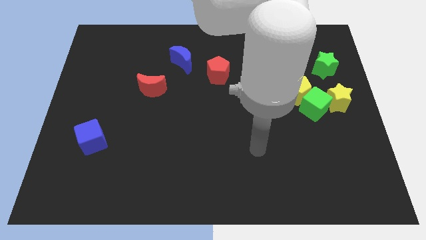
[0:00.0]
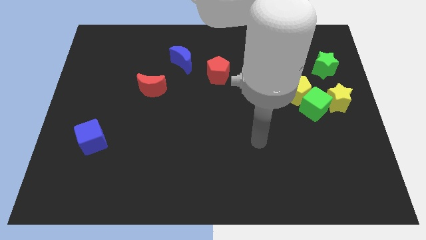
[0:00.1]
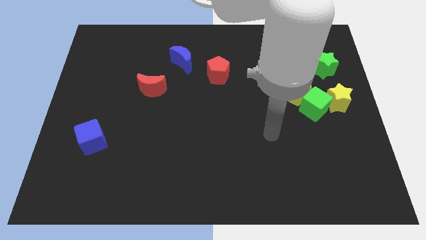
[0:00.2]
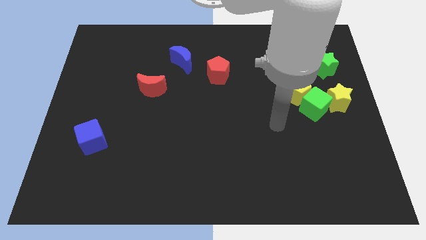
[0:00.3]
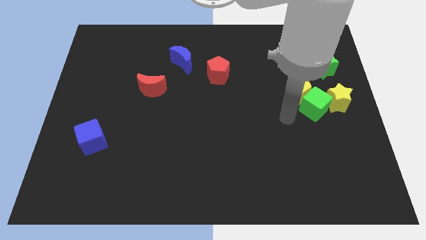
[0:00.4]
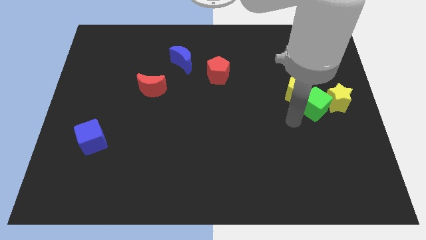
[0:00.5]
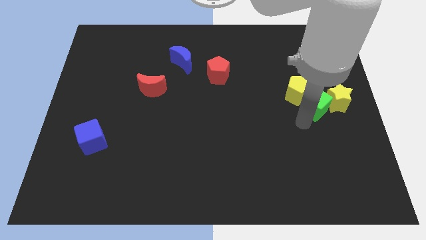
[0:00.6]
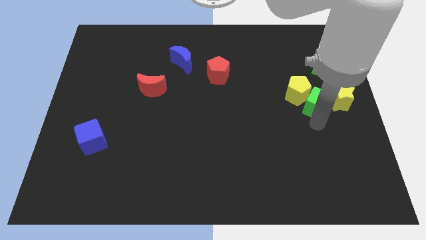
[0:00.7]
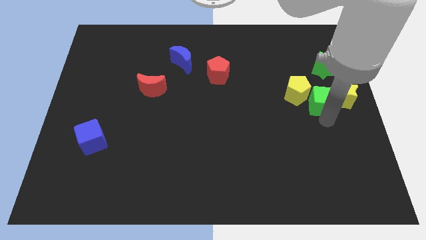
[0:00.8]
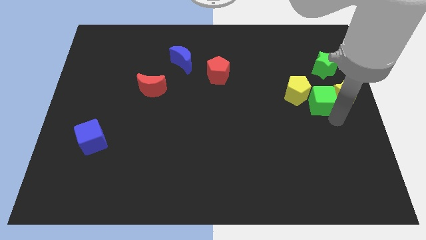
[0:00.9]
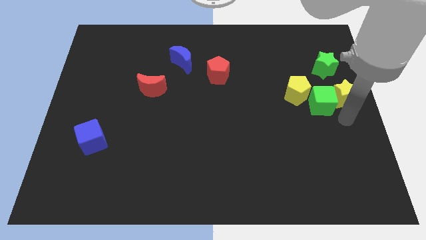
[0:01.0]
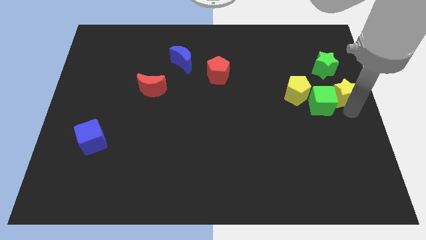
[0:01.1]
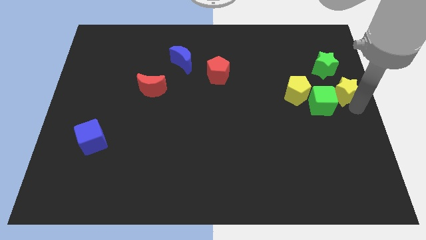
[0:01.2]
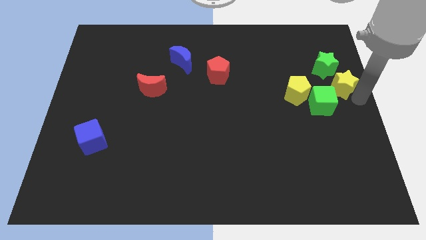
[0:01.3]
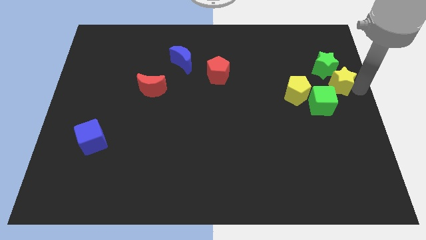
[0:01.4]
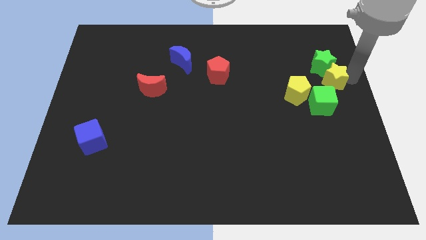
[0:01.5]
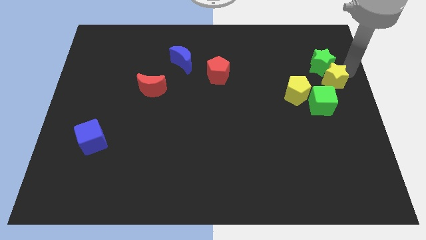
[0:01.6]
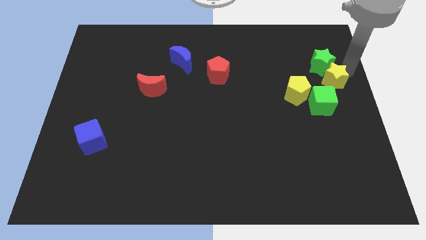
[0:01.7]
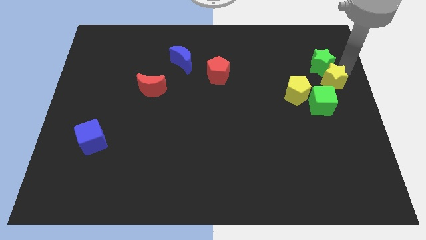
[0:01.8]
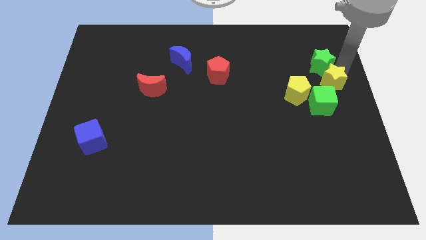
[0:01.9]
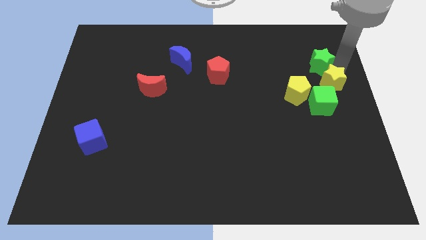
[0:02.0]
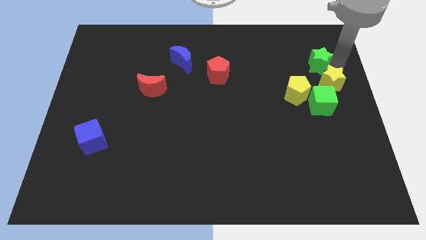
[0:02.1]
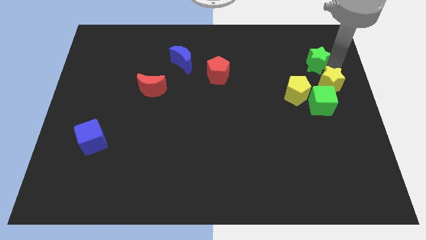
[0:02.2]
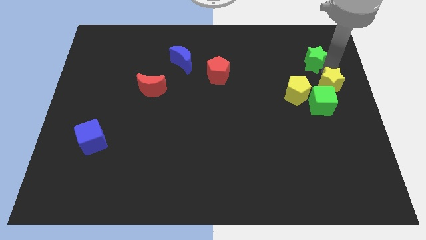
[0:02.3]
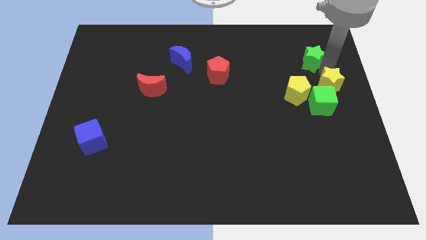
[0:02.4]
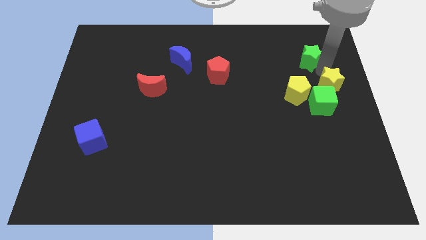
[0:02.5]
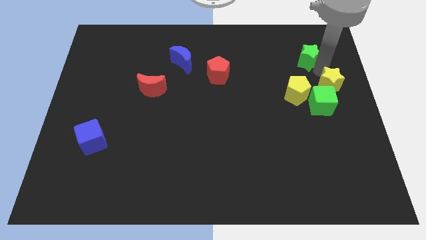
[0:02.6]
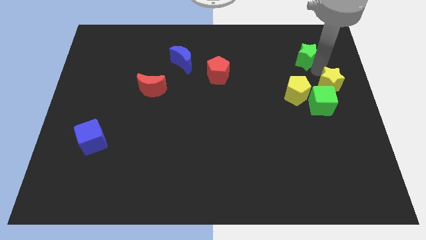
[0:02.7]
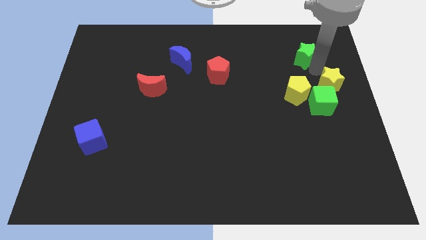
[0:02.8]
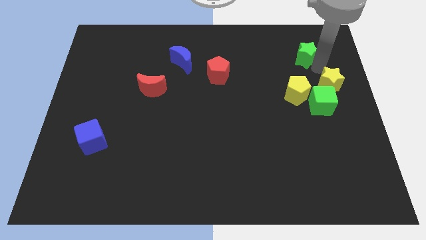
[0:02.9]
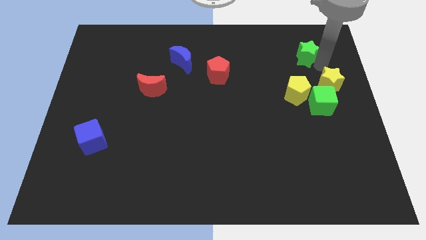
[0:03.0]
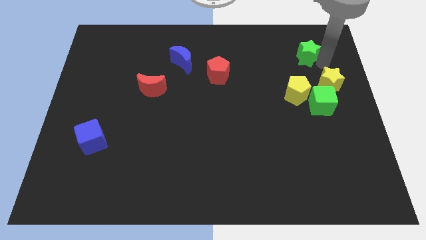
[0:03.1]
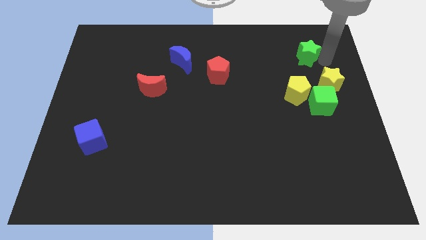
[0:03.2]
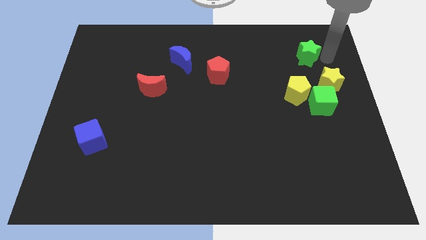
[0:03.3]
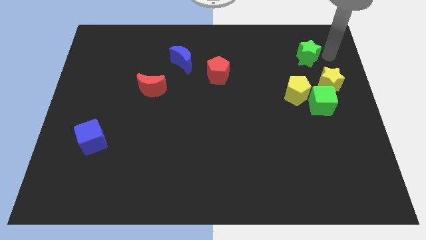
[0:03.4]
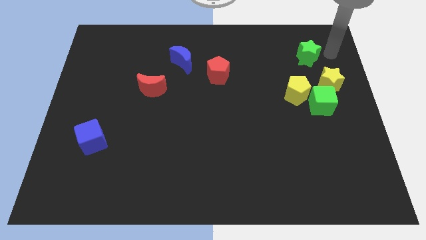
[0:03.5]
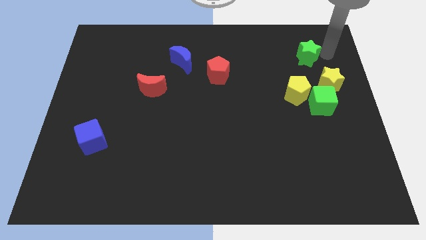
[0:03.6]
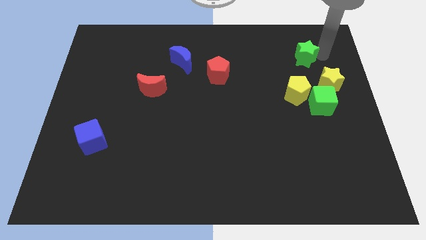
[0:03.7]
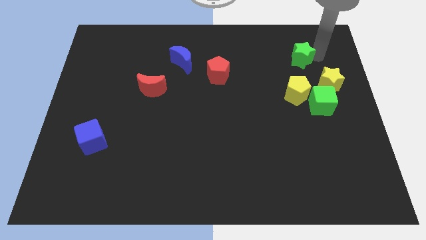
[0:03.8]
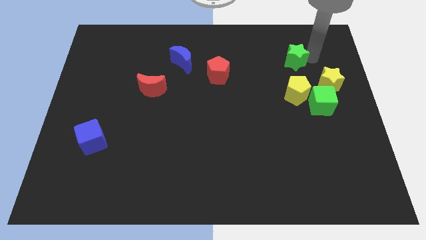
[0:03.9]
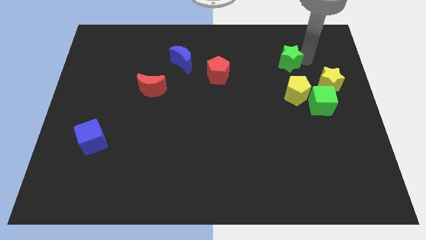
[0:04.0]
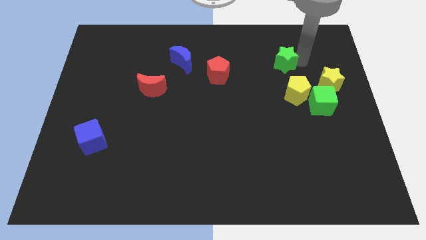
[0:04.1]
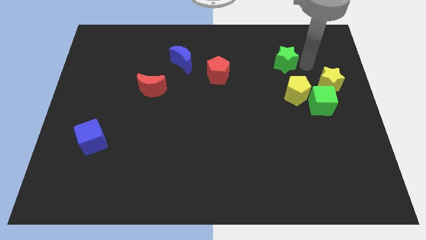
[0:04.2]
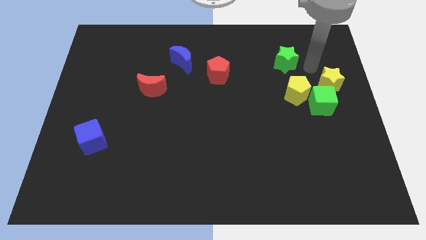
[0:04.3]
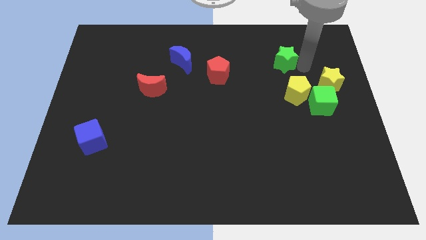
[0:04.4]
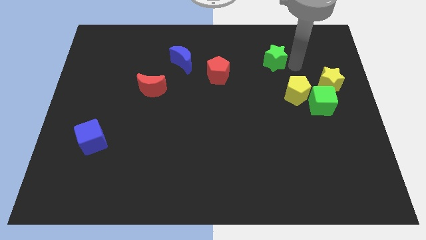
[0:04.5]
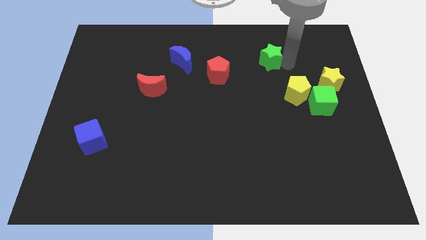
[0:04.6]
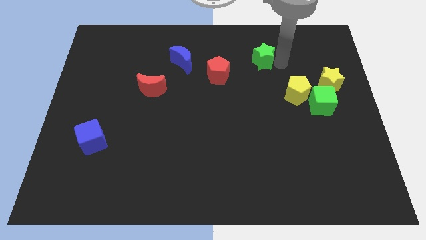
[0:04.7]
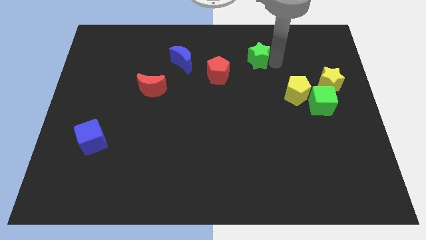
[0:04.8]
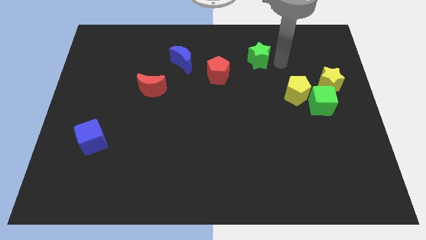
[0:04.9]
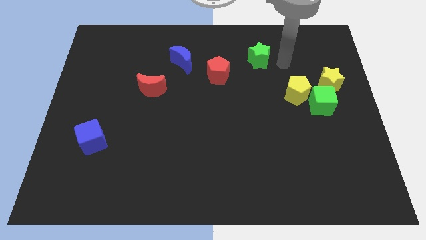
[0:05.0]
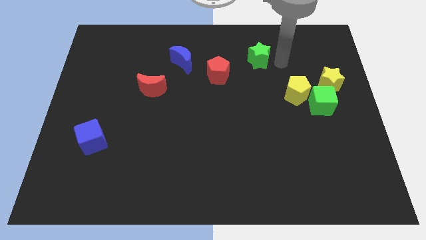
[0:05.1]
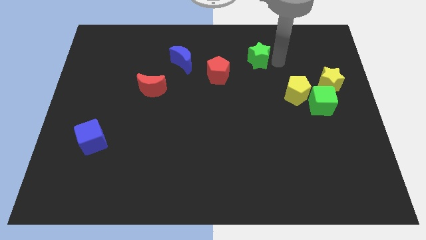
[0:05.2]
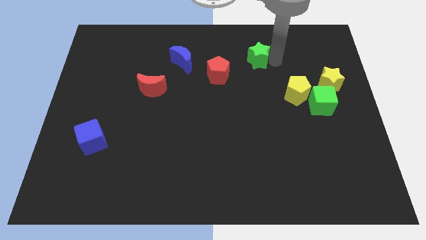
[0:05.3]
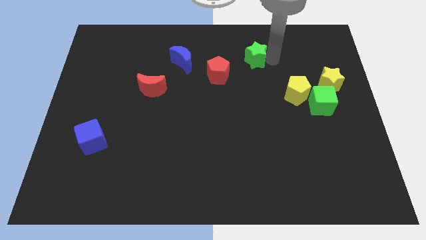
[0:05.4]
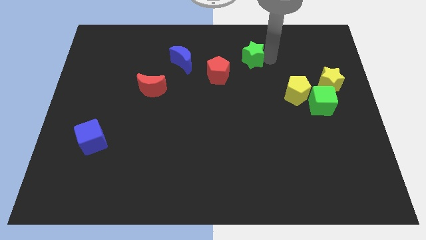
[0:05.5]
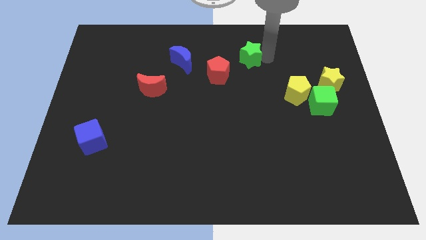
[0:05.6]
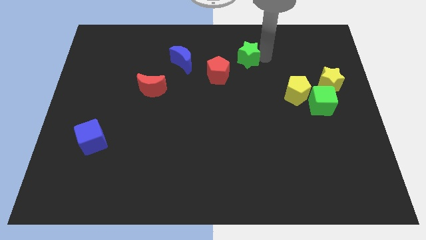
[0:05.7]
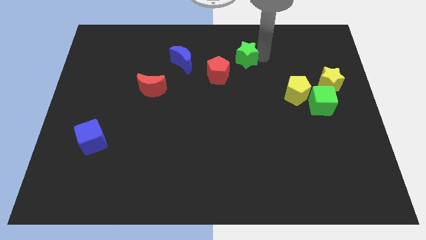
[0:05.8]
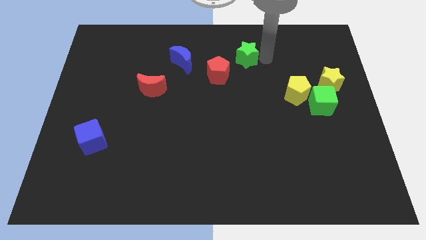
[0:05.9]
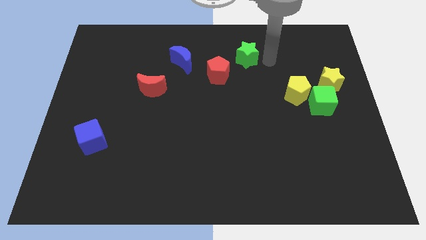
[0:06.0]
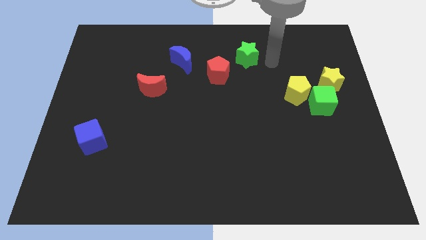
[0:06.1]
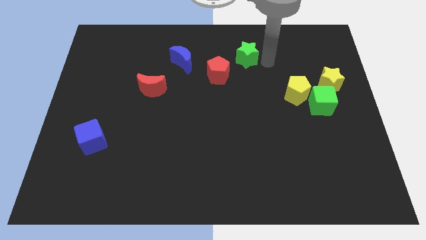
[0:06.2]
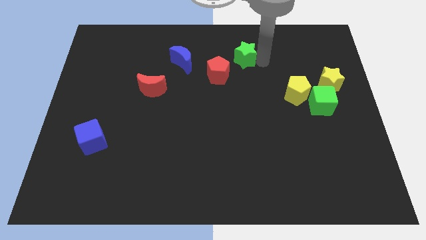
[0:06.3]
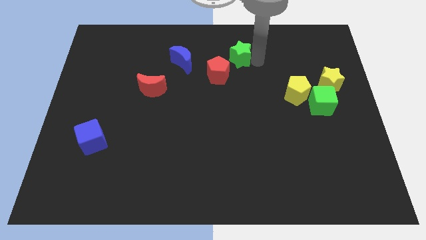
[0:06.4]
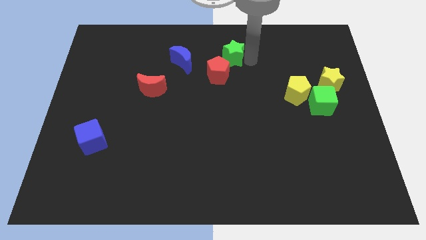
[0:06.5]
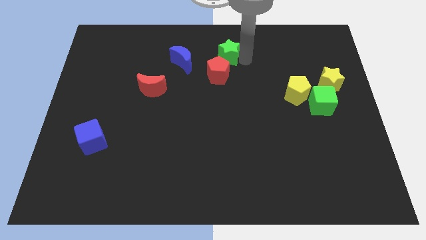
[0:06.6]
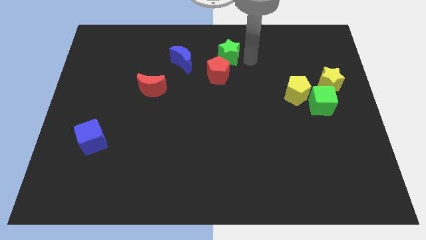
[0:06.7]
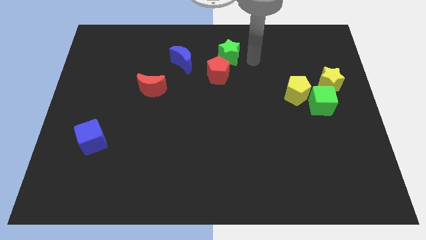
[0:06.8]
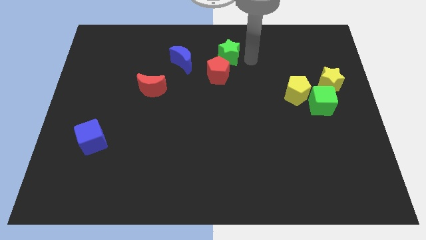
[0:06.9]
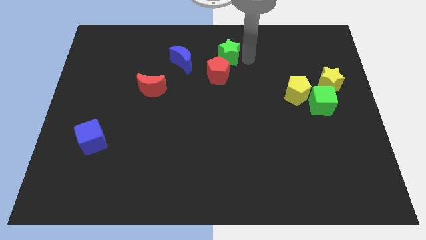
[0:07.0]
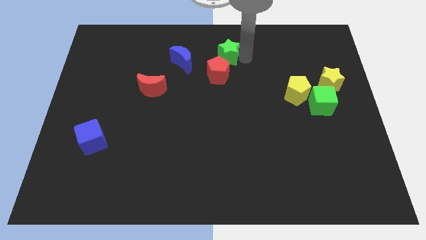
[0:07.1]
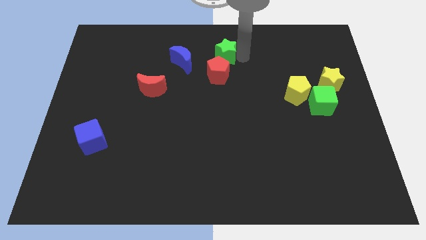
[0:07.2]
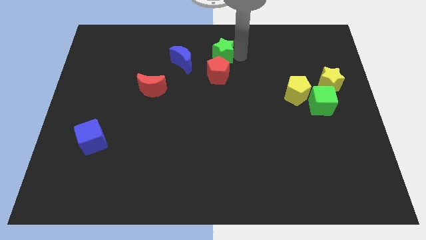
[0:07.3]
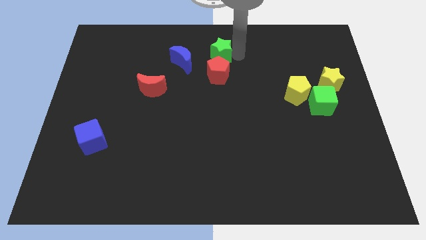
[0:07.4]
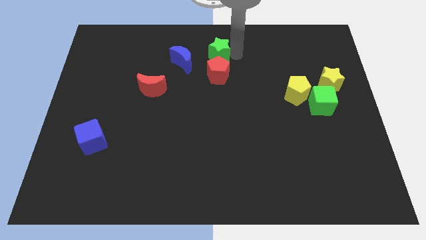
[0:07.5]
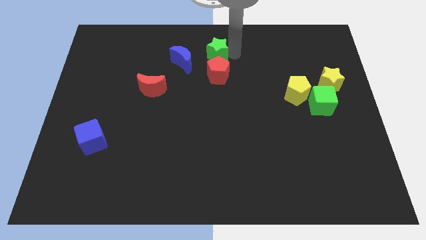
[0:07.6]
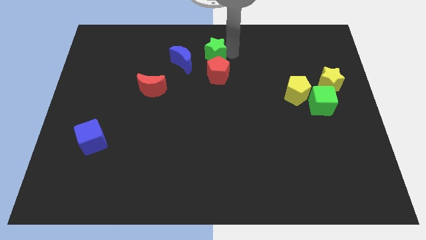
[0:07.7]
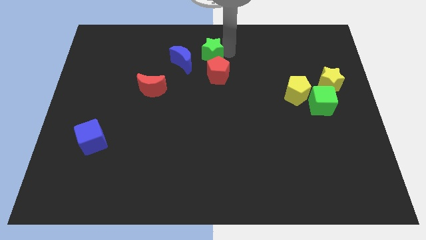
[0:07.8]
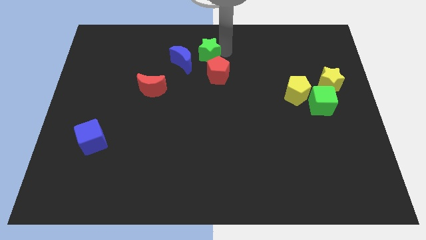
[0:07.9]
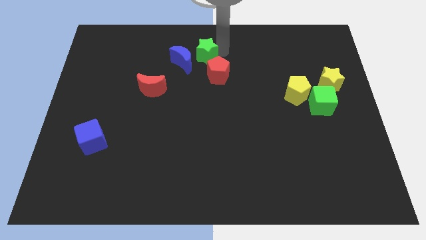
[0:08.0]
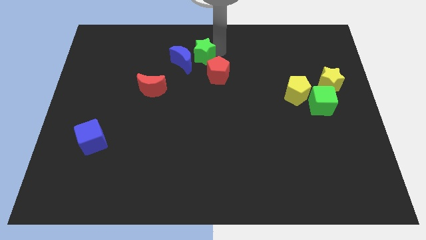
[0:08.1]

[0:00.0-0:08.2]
push the green star next to the blue moon
